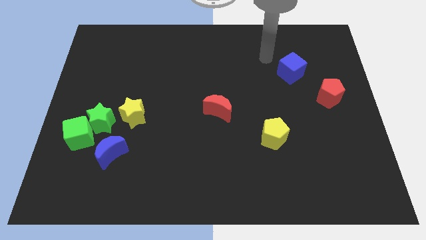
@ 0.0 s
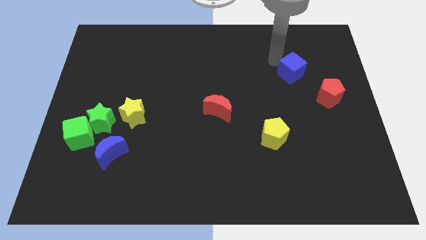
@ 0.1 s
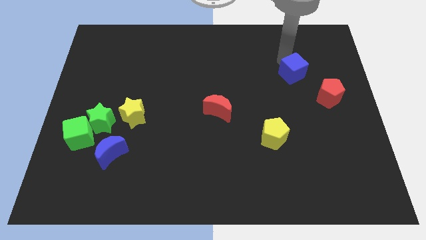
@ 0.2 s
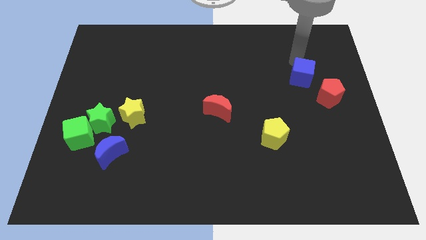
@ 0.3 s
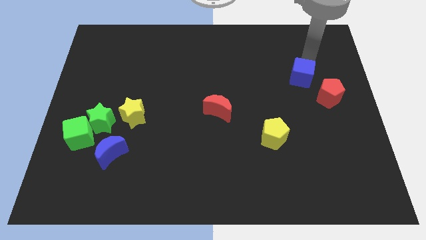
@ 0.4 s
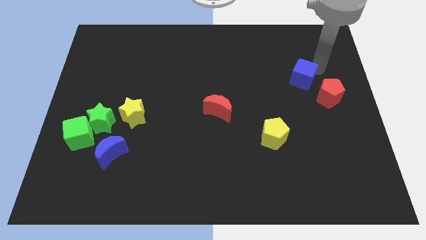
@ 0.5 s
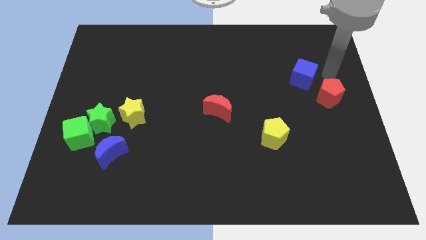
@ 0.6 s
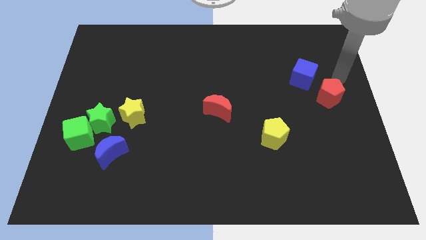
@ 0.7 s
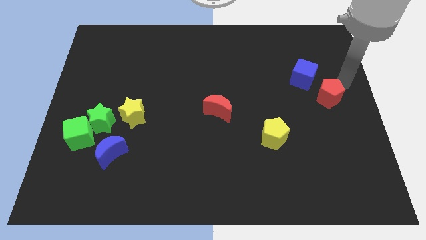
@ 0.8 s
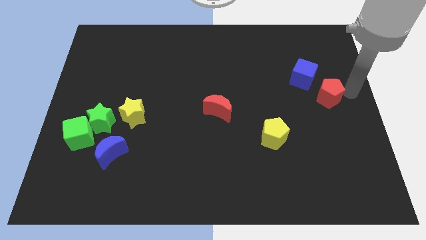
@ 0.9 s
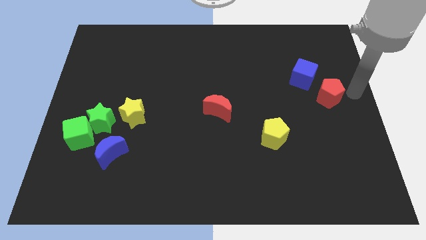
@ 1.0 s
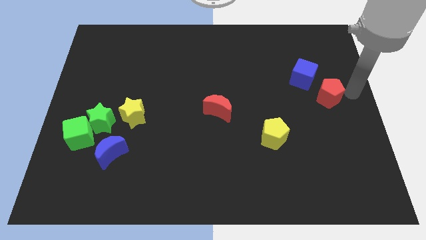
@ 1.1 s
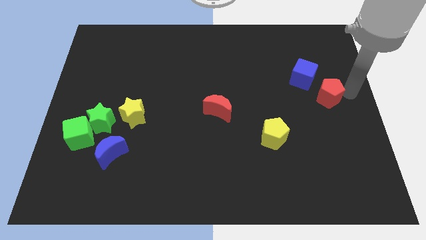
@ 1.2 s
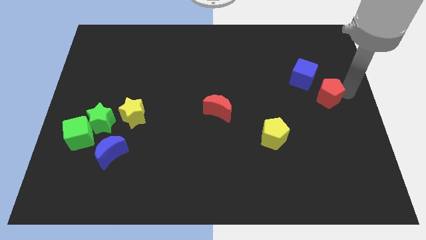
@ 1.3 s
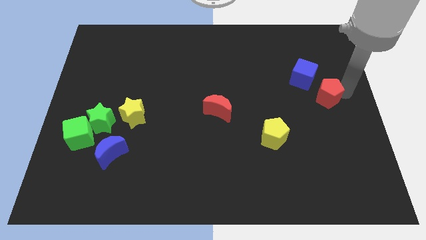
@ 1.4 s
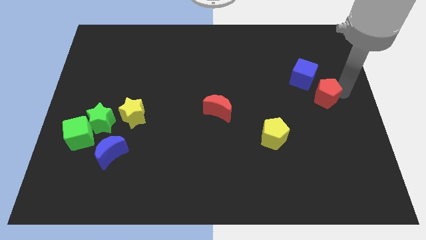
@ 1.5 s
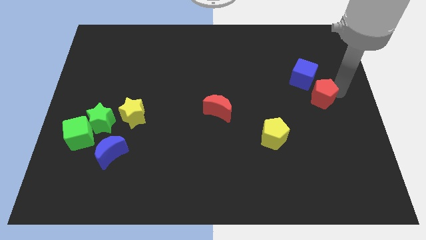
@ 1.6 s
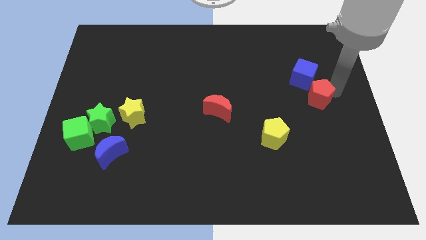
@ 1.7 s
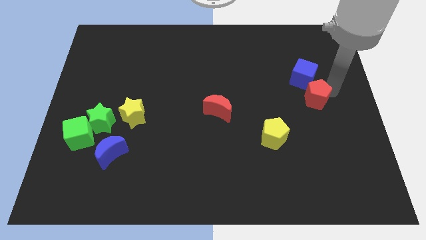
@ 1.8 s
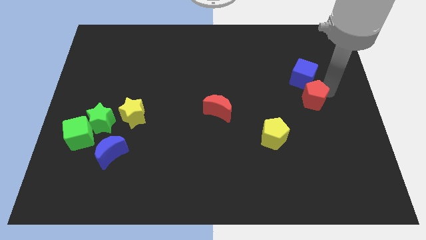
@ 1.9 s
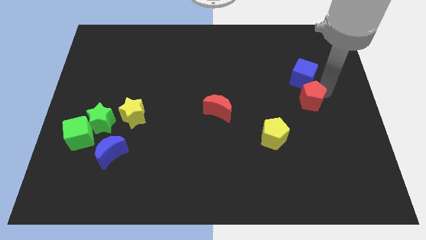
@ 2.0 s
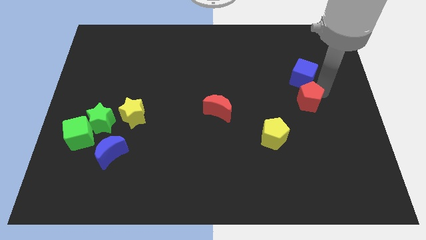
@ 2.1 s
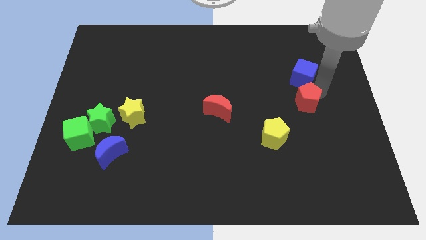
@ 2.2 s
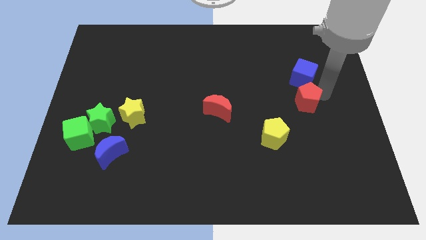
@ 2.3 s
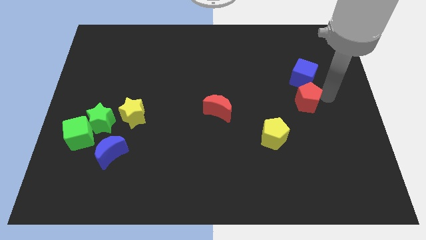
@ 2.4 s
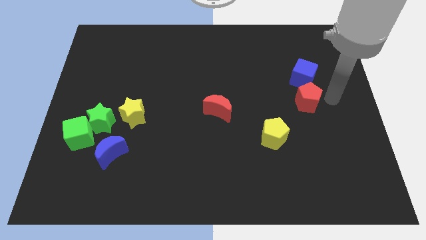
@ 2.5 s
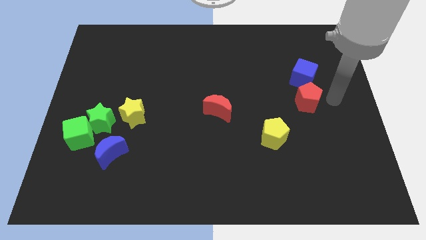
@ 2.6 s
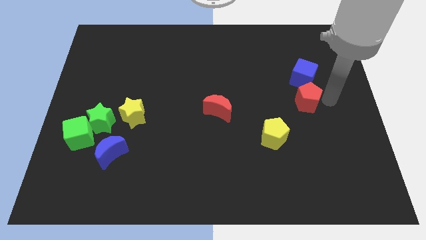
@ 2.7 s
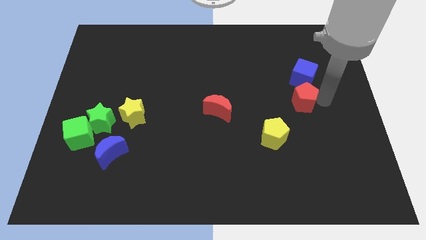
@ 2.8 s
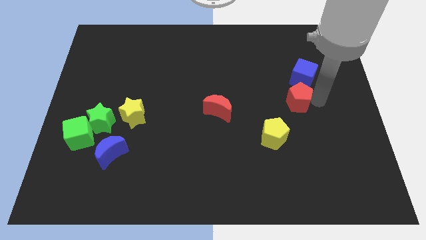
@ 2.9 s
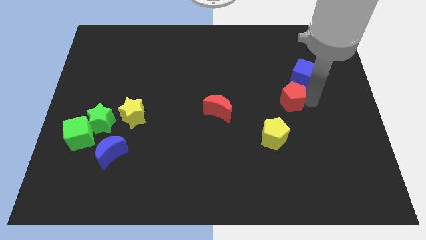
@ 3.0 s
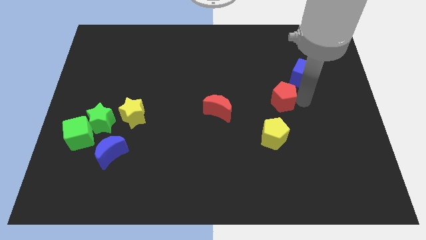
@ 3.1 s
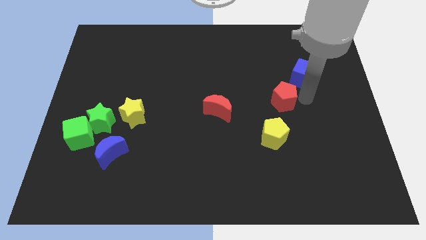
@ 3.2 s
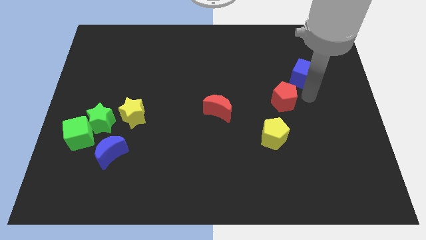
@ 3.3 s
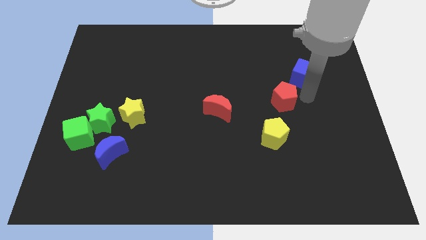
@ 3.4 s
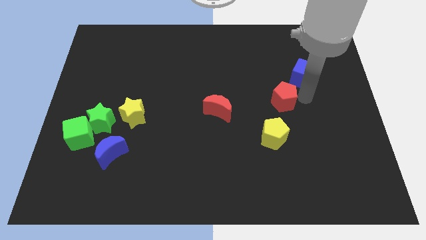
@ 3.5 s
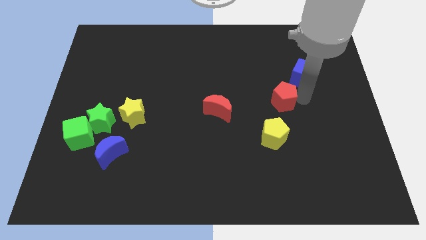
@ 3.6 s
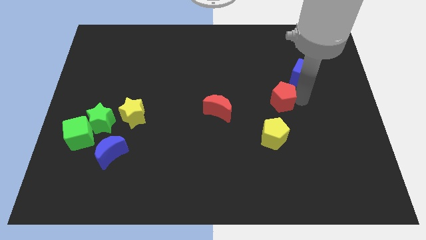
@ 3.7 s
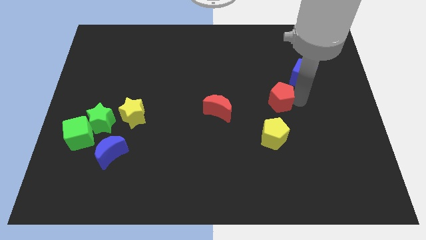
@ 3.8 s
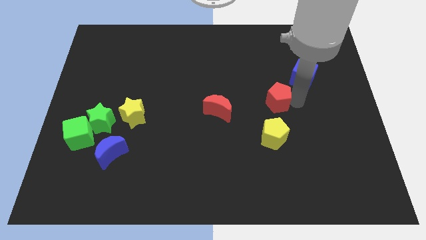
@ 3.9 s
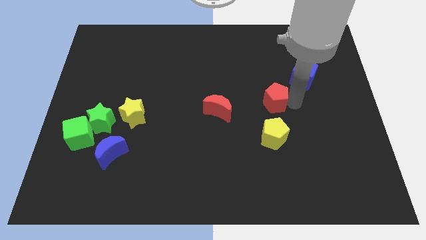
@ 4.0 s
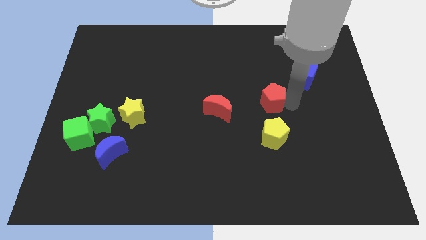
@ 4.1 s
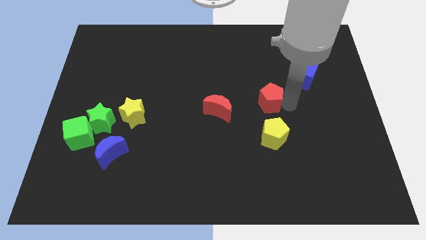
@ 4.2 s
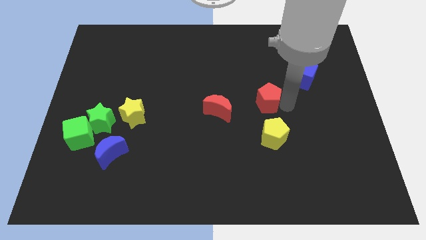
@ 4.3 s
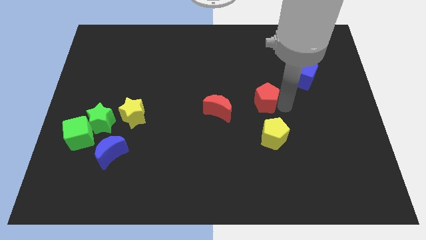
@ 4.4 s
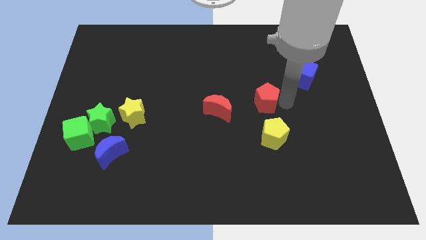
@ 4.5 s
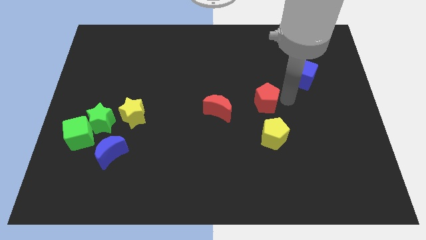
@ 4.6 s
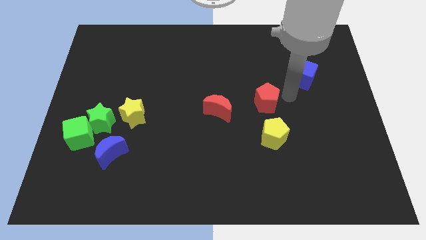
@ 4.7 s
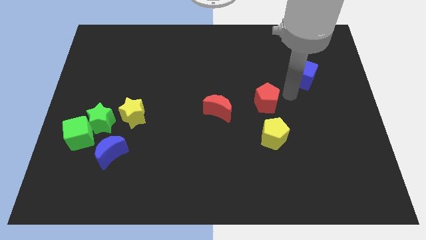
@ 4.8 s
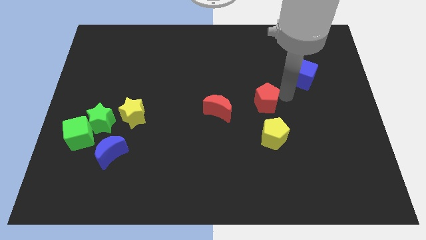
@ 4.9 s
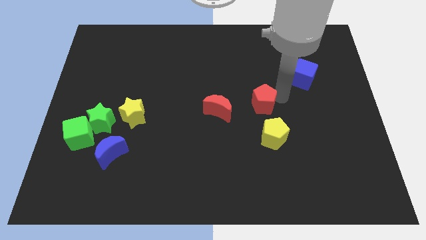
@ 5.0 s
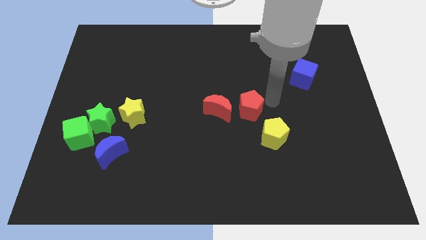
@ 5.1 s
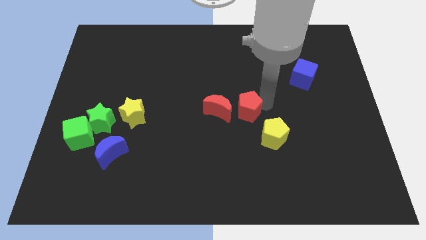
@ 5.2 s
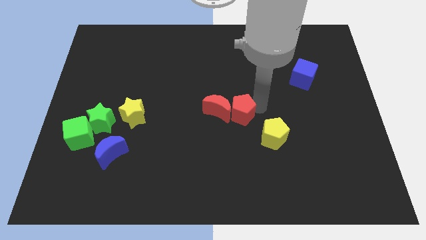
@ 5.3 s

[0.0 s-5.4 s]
put the red pentagon to the red moon

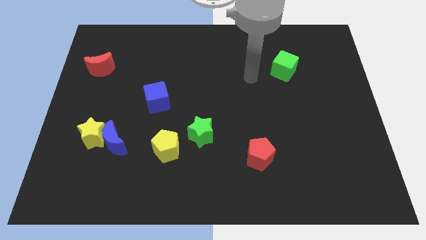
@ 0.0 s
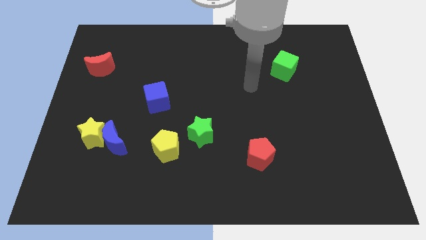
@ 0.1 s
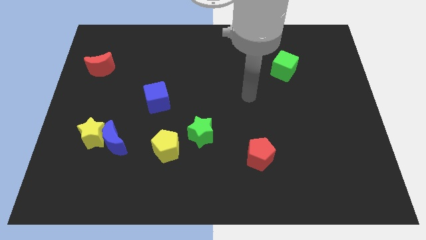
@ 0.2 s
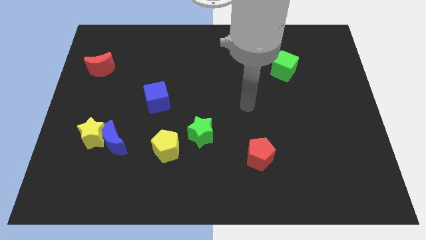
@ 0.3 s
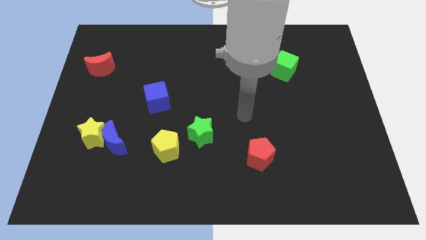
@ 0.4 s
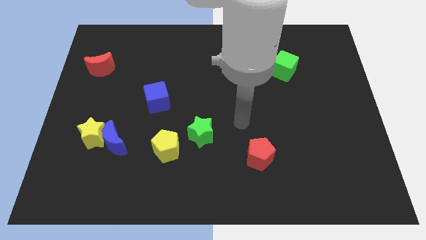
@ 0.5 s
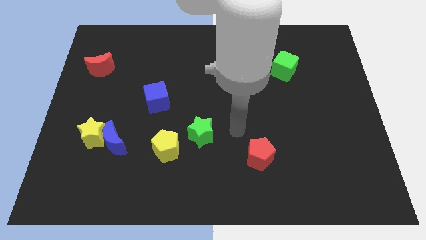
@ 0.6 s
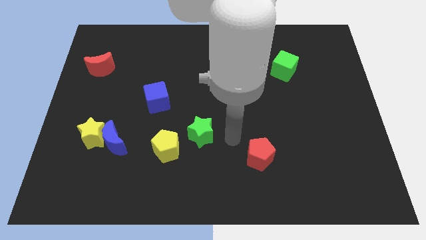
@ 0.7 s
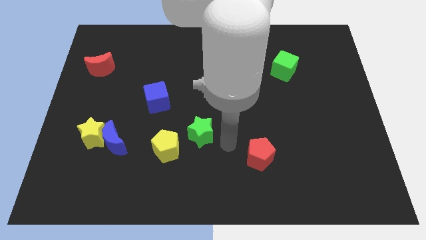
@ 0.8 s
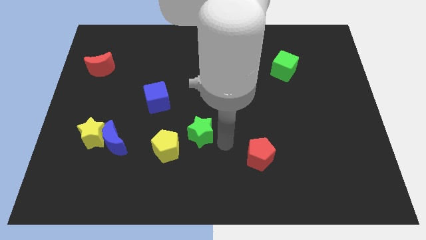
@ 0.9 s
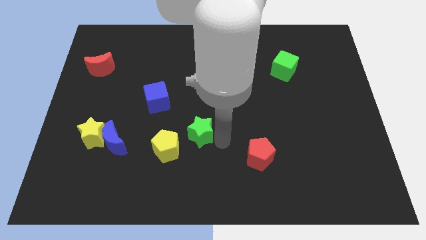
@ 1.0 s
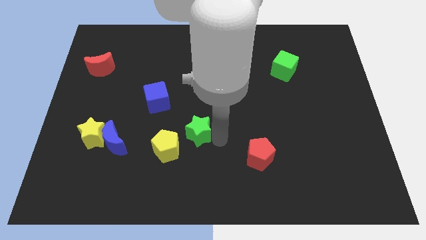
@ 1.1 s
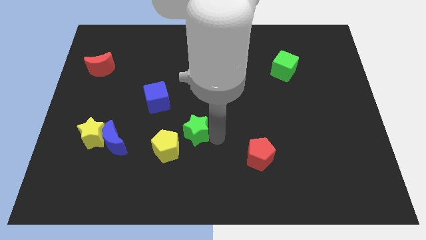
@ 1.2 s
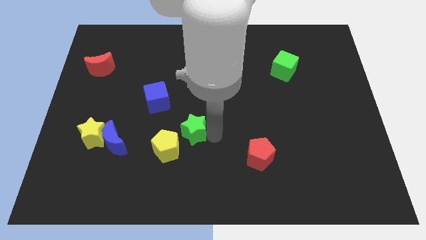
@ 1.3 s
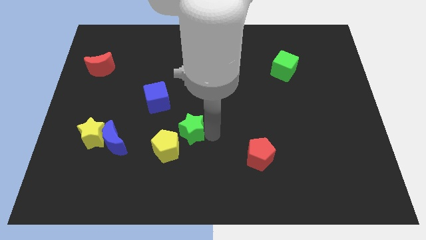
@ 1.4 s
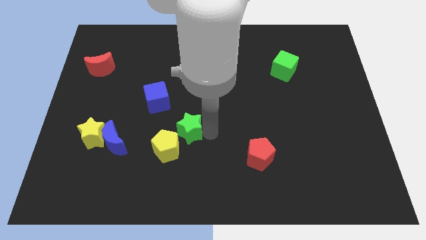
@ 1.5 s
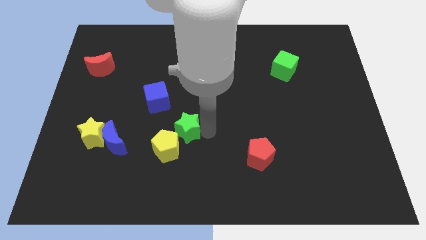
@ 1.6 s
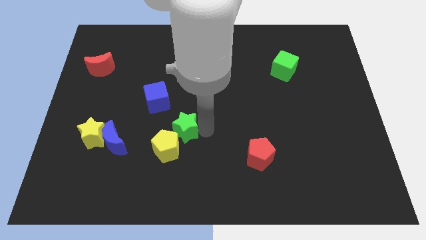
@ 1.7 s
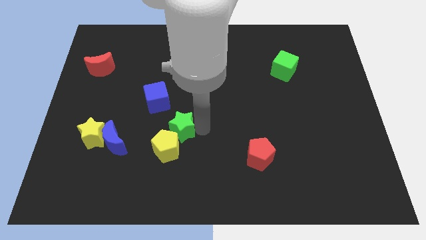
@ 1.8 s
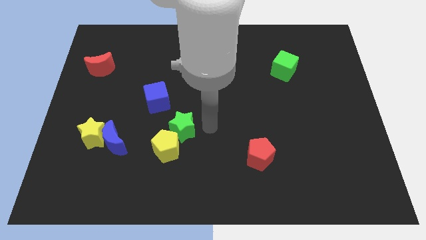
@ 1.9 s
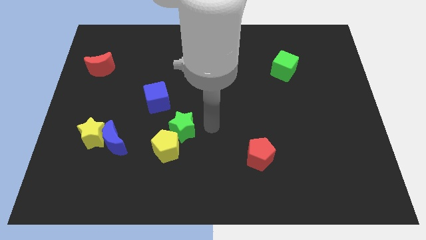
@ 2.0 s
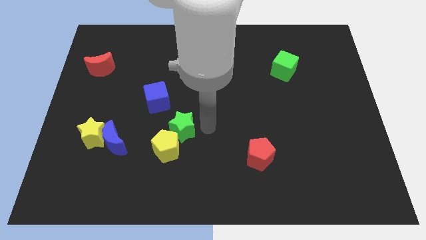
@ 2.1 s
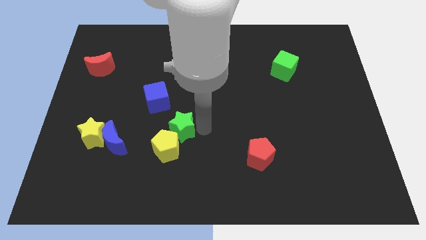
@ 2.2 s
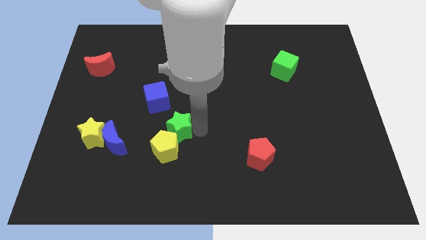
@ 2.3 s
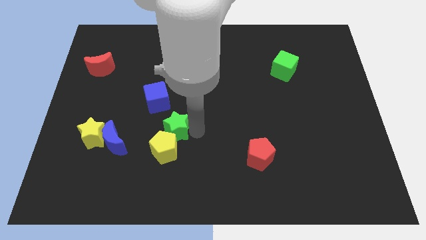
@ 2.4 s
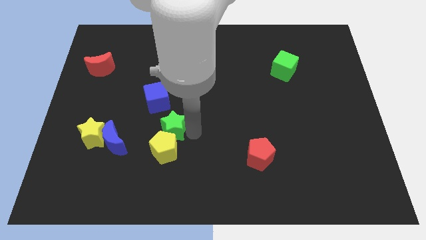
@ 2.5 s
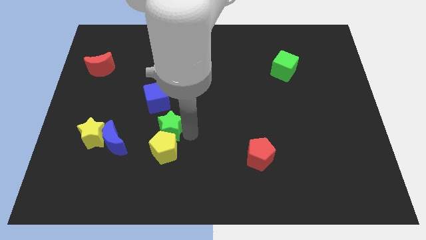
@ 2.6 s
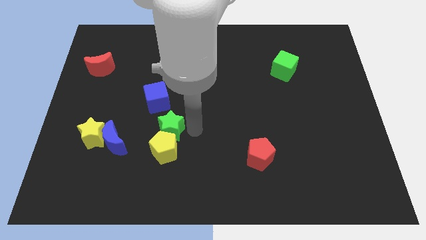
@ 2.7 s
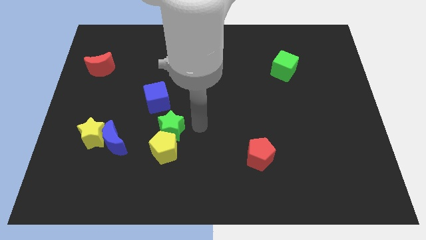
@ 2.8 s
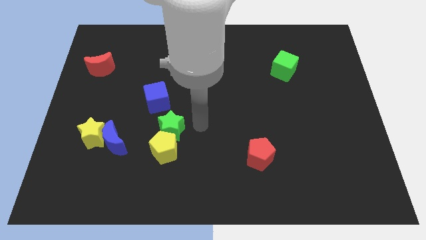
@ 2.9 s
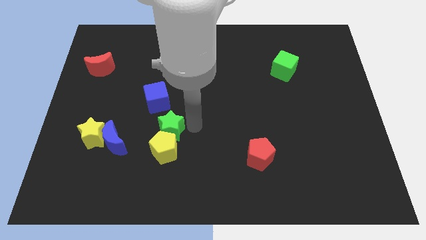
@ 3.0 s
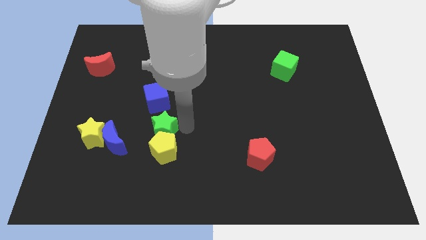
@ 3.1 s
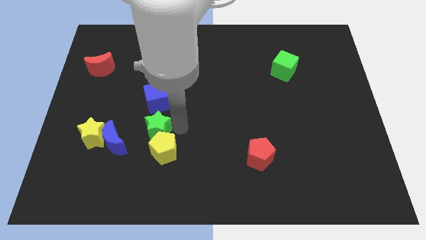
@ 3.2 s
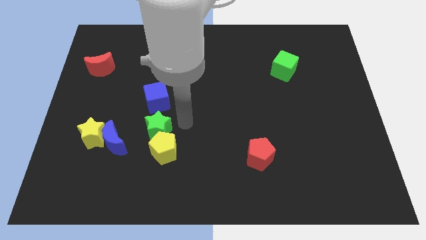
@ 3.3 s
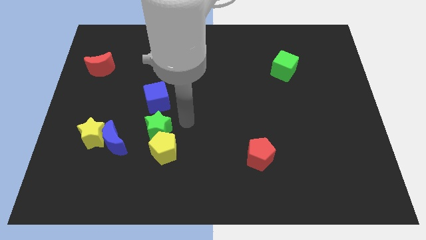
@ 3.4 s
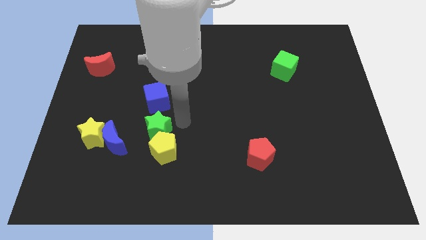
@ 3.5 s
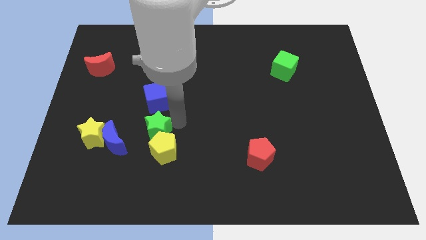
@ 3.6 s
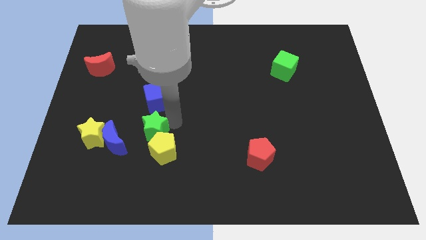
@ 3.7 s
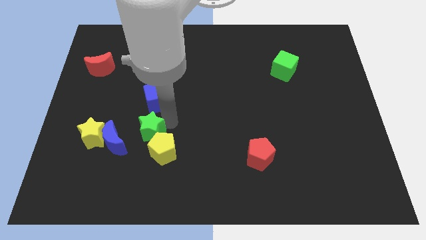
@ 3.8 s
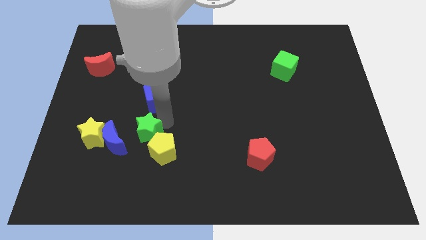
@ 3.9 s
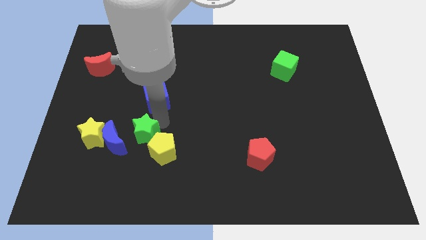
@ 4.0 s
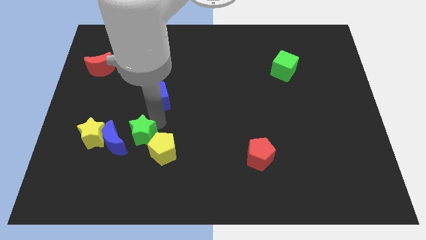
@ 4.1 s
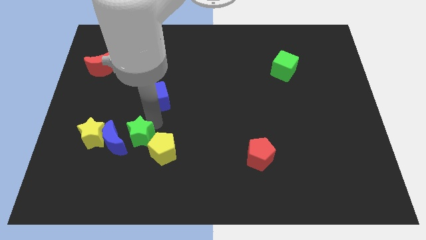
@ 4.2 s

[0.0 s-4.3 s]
push the green star next to the blue moon
